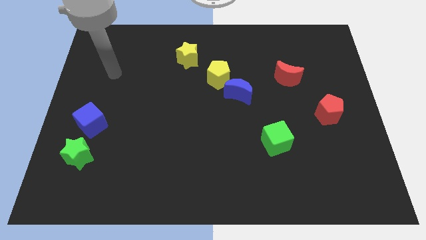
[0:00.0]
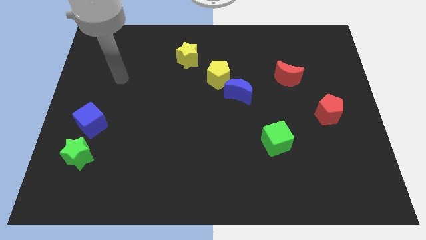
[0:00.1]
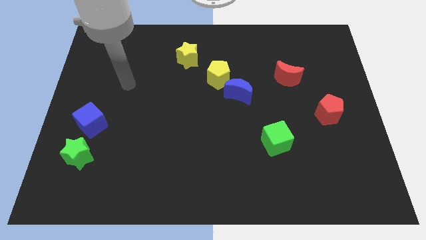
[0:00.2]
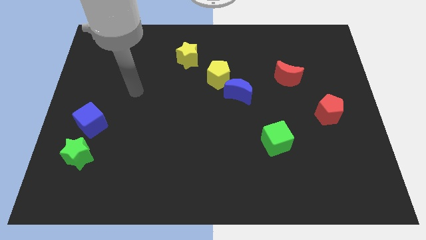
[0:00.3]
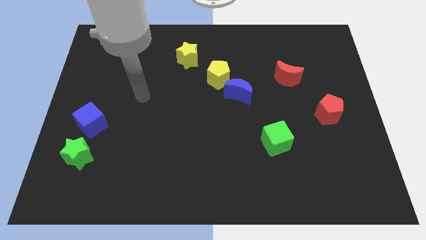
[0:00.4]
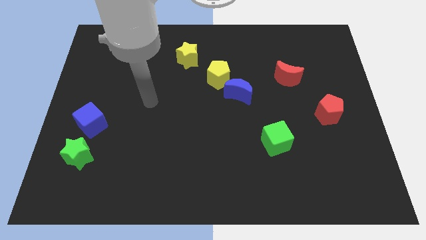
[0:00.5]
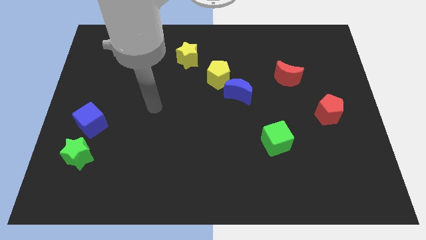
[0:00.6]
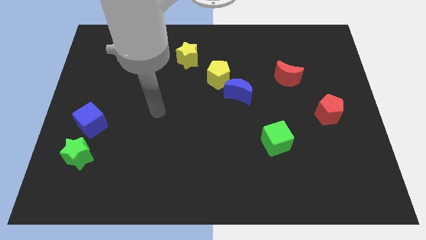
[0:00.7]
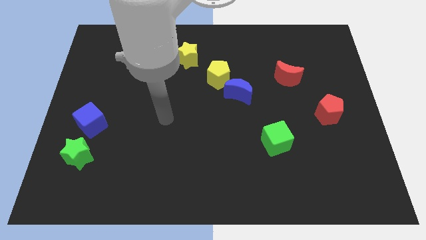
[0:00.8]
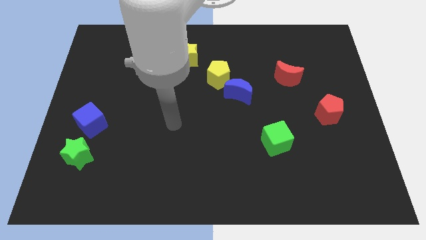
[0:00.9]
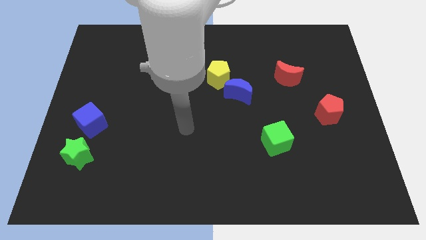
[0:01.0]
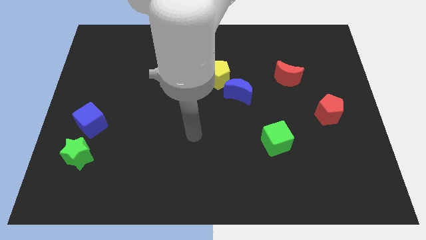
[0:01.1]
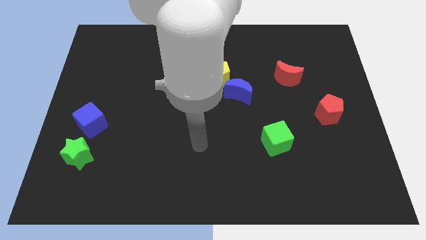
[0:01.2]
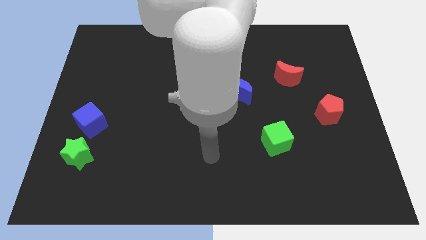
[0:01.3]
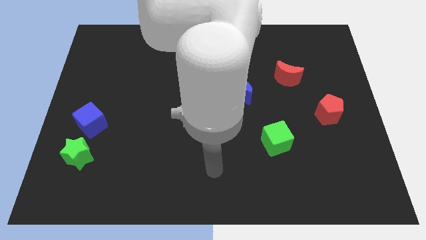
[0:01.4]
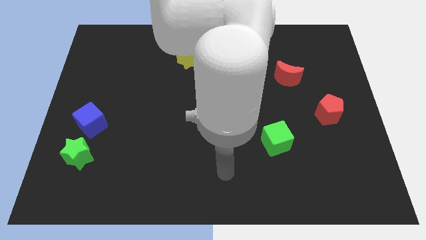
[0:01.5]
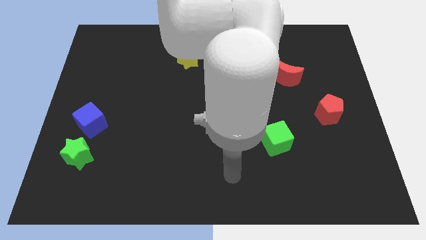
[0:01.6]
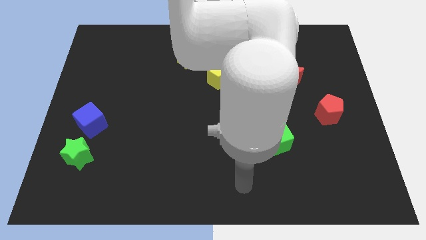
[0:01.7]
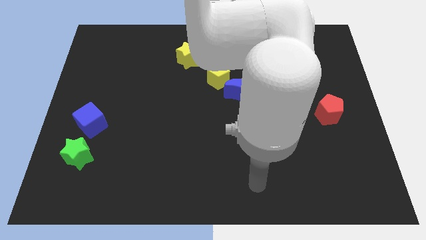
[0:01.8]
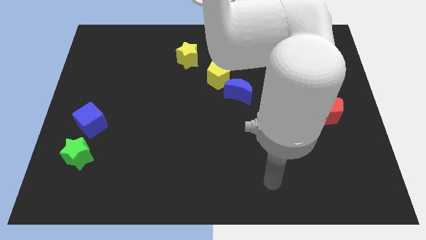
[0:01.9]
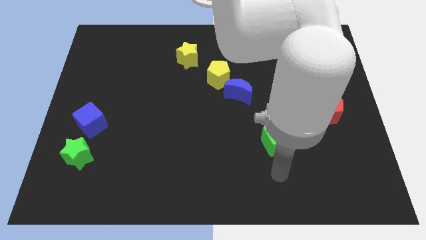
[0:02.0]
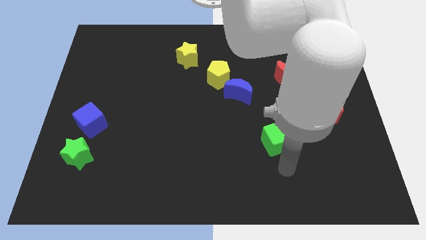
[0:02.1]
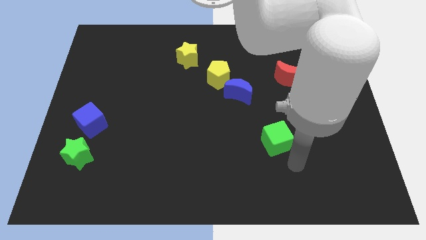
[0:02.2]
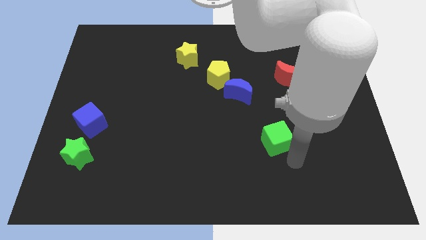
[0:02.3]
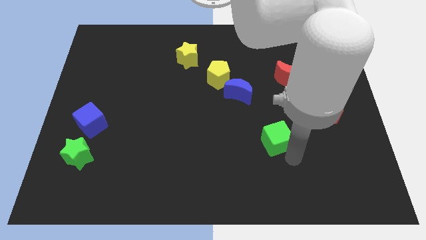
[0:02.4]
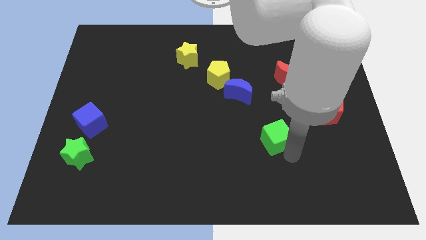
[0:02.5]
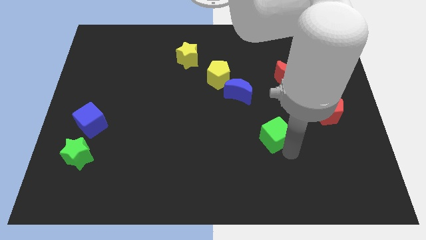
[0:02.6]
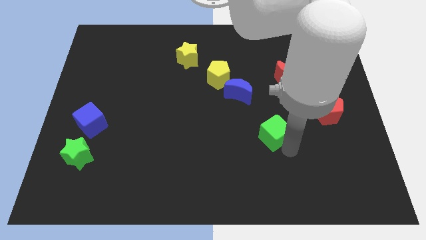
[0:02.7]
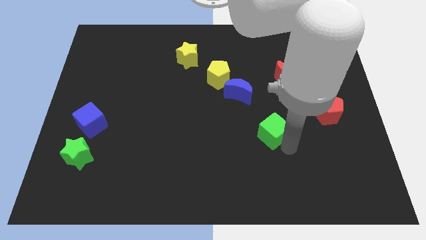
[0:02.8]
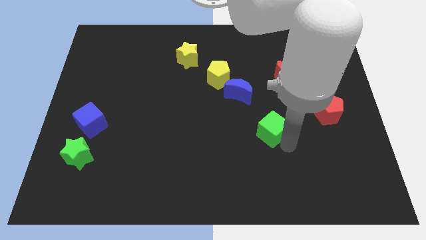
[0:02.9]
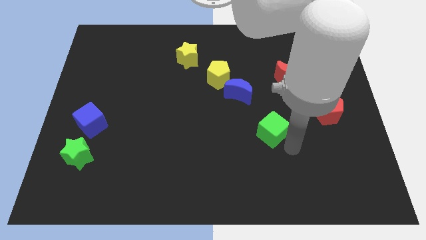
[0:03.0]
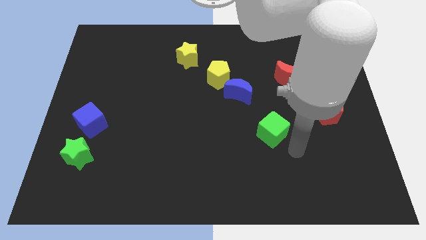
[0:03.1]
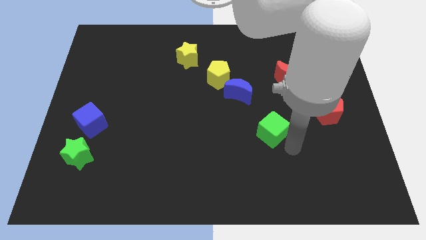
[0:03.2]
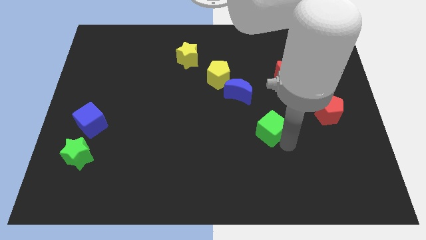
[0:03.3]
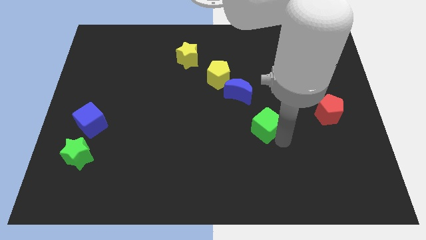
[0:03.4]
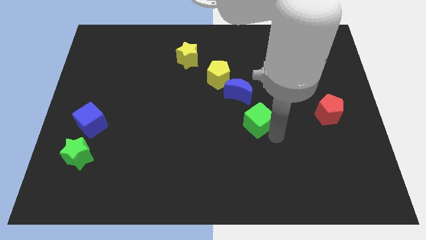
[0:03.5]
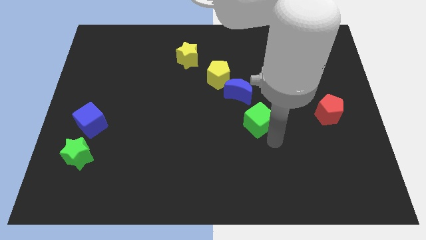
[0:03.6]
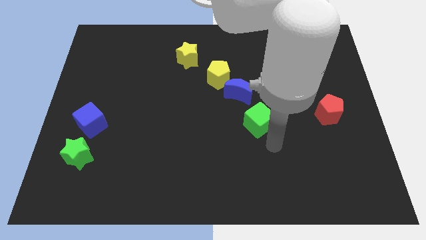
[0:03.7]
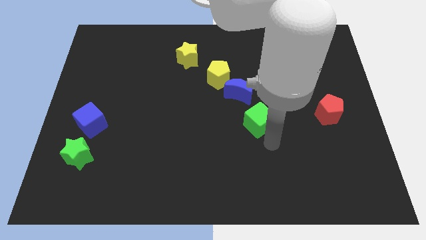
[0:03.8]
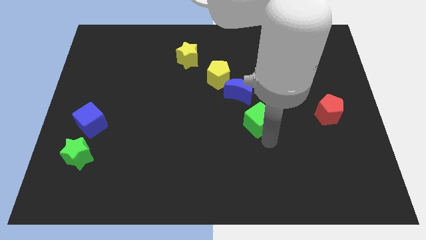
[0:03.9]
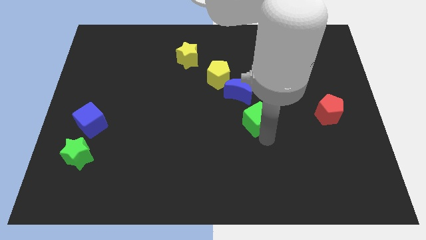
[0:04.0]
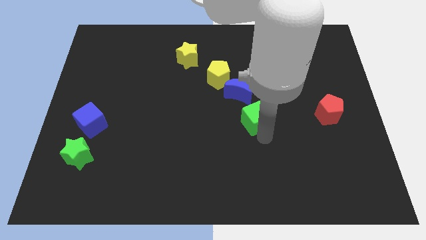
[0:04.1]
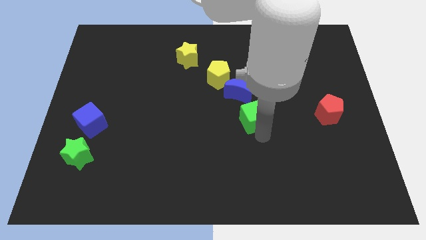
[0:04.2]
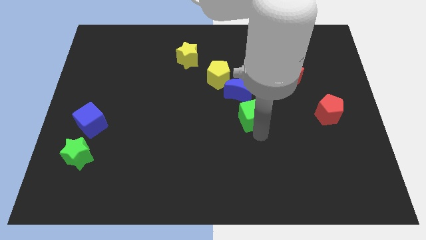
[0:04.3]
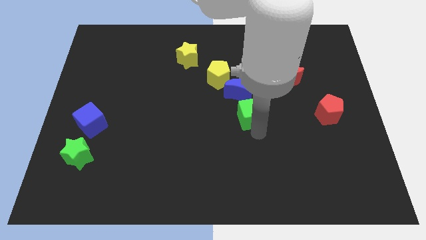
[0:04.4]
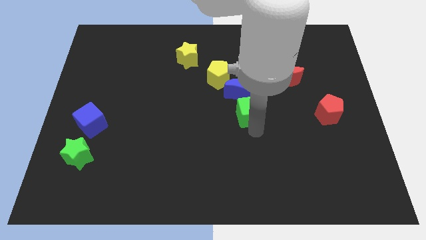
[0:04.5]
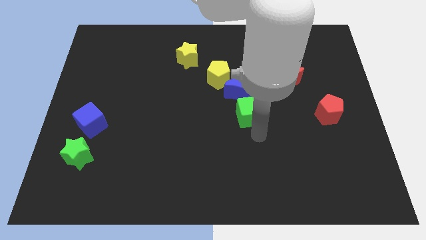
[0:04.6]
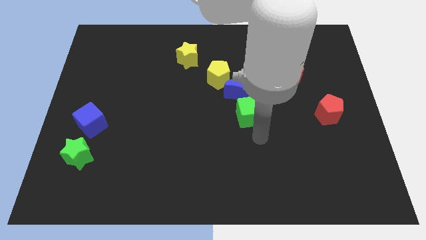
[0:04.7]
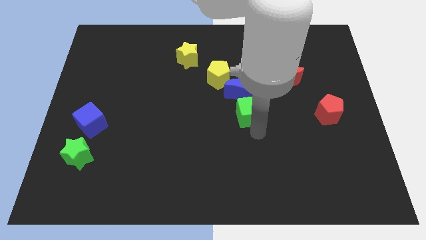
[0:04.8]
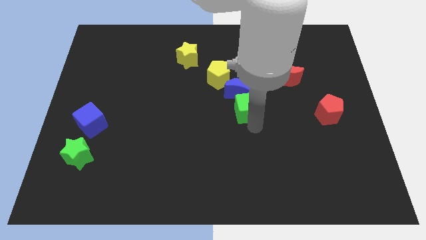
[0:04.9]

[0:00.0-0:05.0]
push the green cube to the blue moon

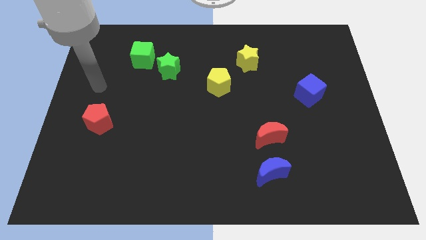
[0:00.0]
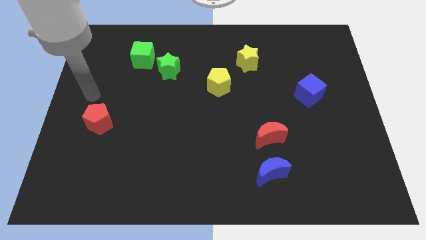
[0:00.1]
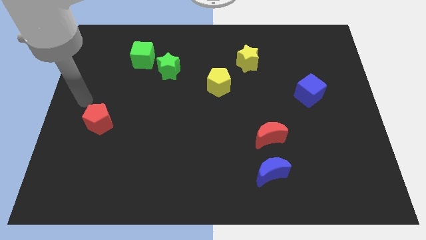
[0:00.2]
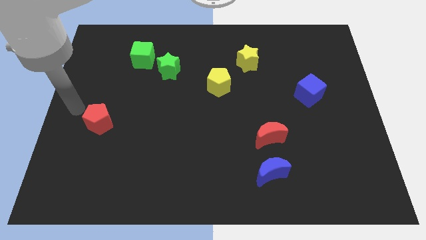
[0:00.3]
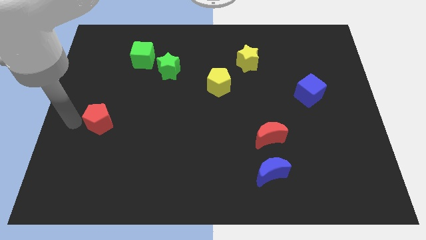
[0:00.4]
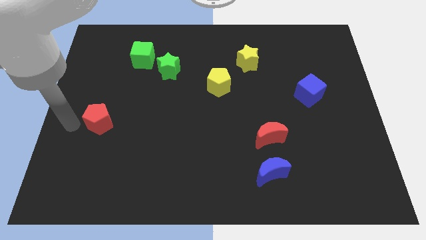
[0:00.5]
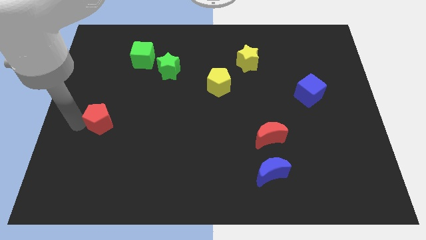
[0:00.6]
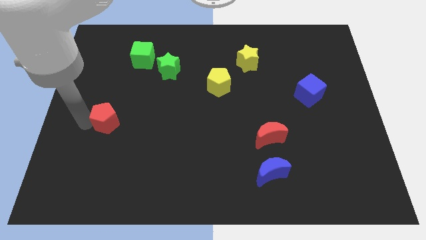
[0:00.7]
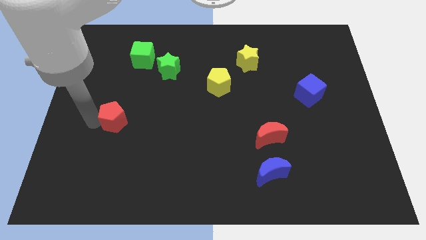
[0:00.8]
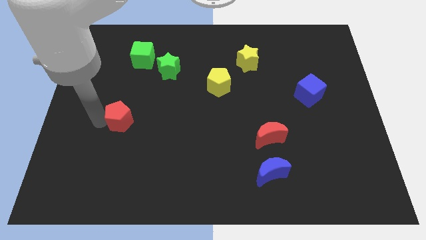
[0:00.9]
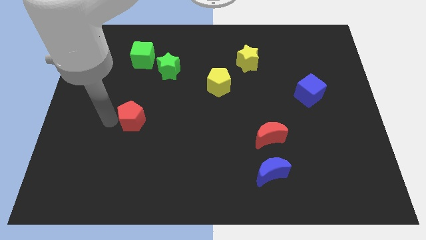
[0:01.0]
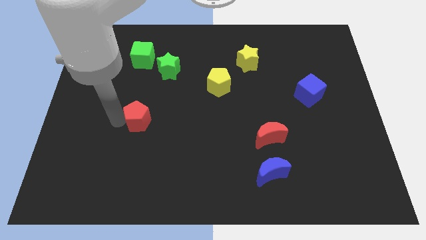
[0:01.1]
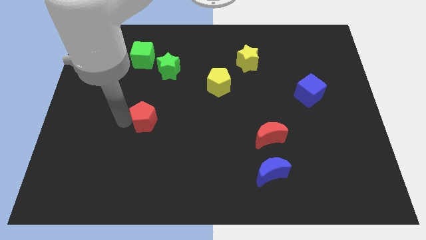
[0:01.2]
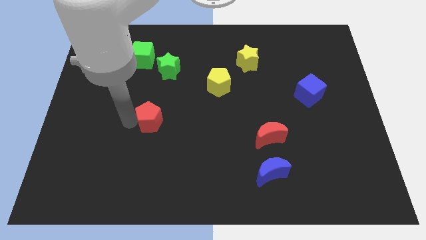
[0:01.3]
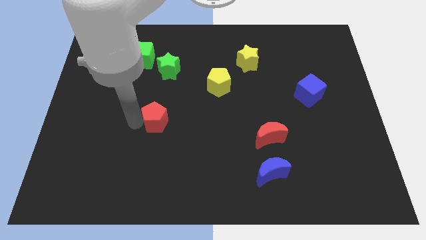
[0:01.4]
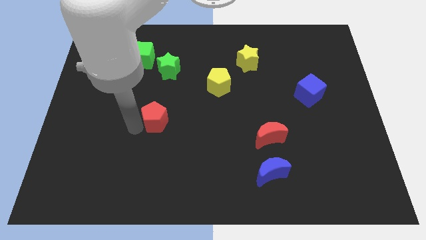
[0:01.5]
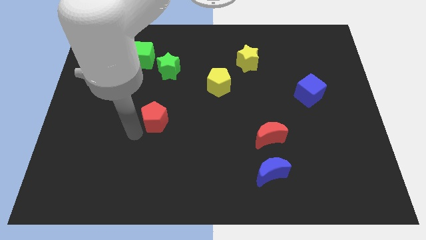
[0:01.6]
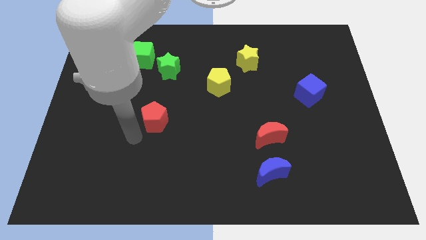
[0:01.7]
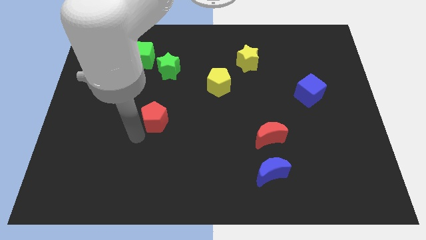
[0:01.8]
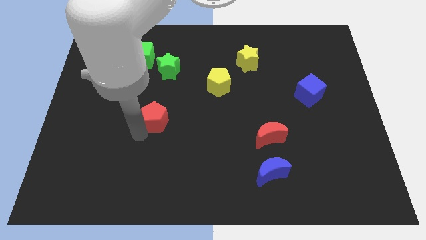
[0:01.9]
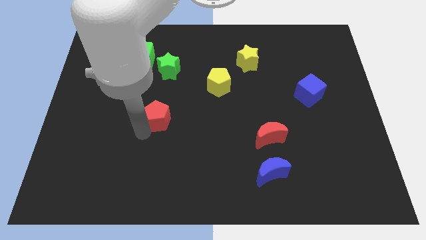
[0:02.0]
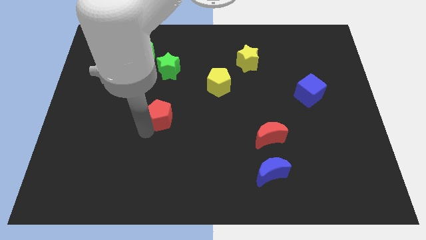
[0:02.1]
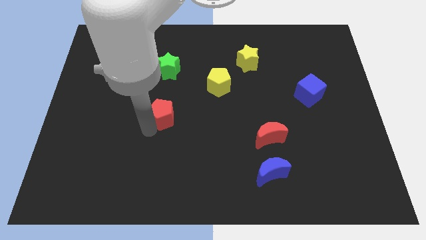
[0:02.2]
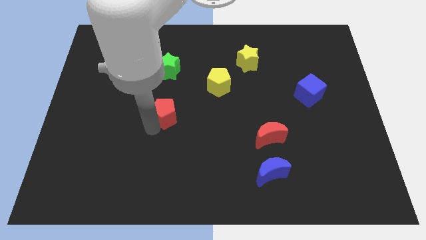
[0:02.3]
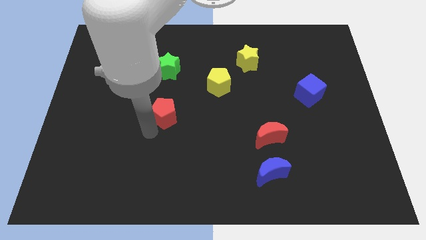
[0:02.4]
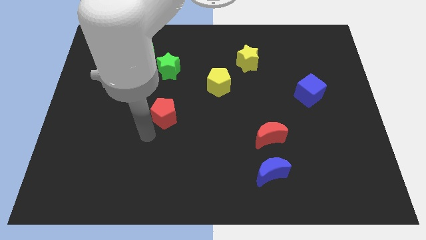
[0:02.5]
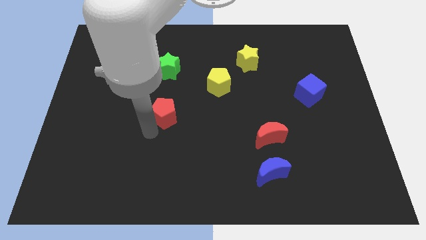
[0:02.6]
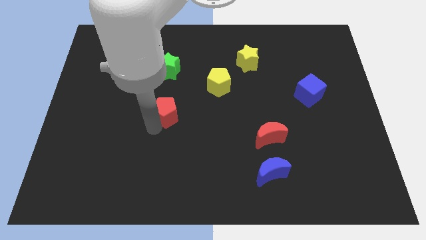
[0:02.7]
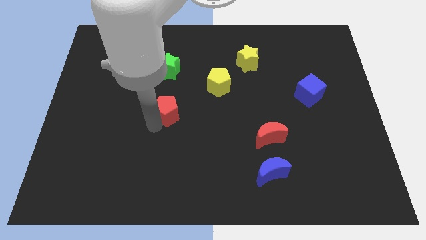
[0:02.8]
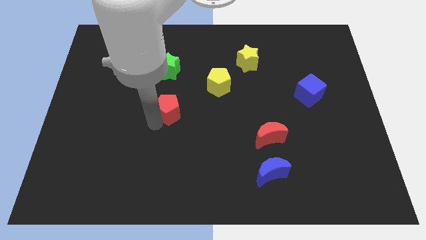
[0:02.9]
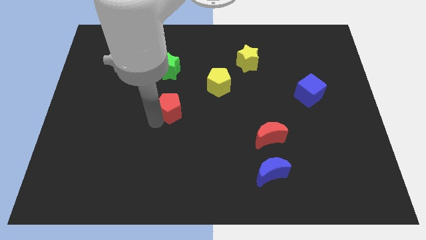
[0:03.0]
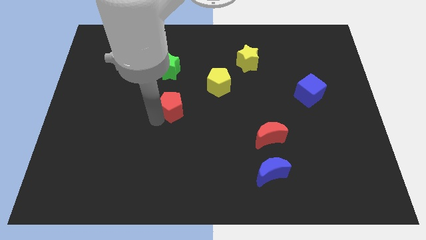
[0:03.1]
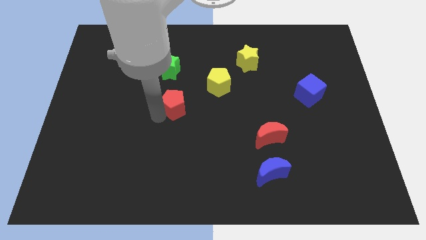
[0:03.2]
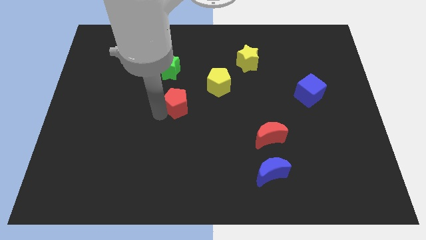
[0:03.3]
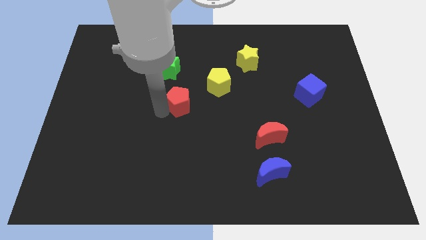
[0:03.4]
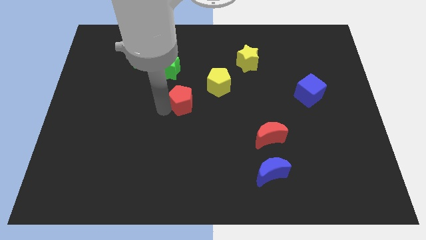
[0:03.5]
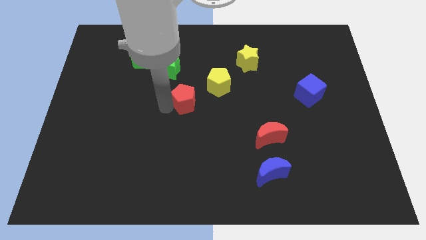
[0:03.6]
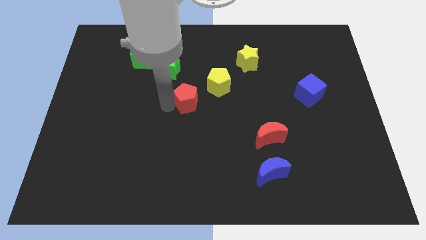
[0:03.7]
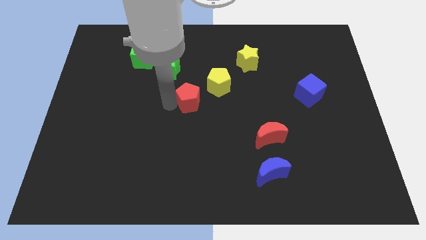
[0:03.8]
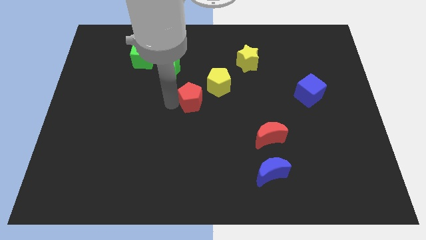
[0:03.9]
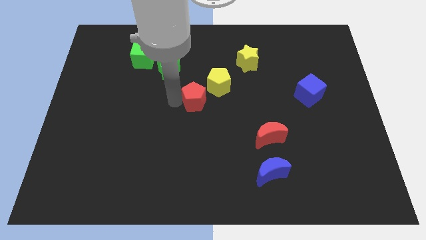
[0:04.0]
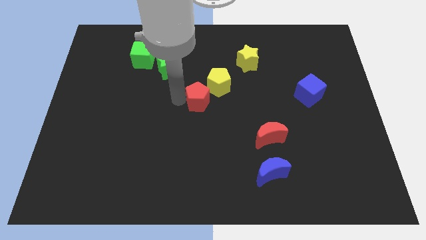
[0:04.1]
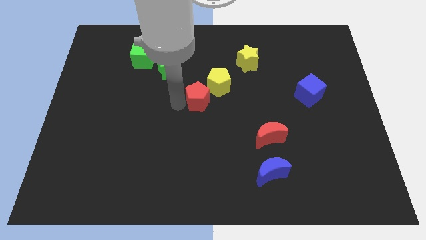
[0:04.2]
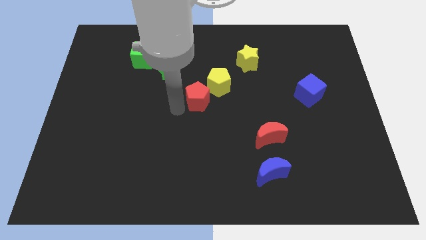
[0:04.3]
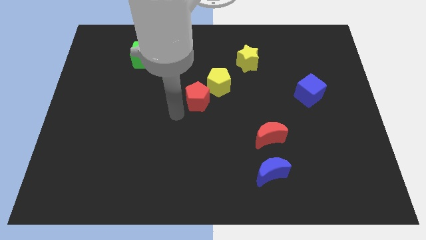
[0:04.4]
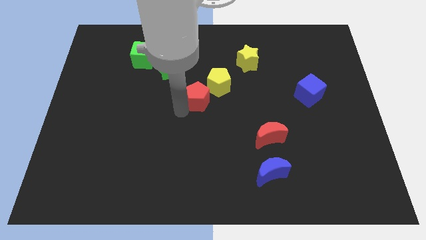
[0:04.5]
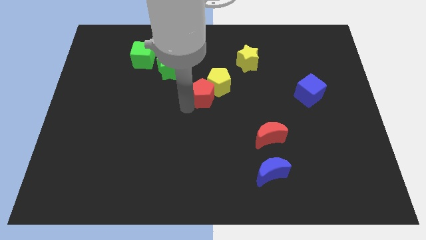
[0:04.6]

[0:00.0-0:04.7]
put the red pentagon to the yellow pentagon
